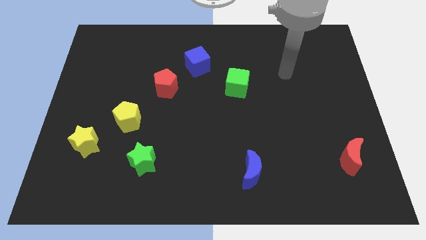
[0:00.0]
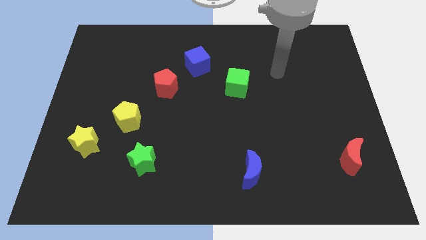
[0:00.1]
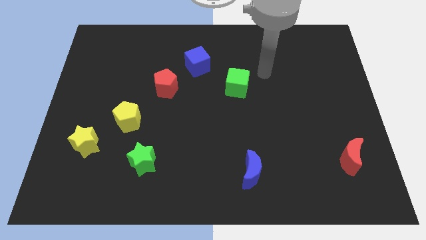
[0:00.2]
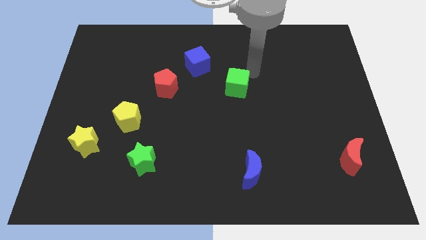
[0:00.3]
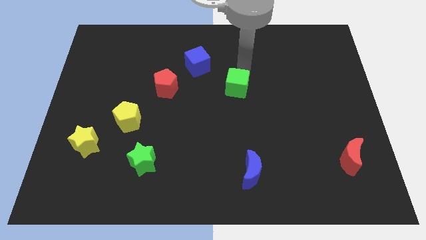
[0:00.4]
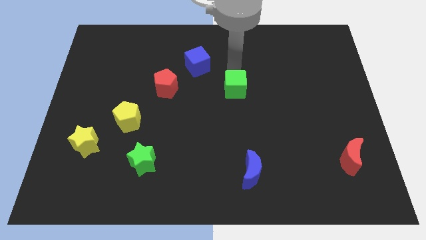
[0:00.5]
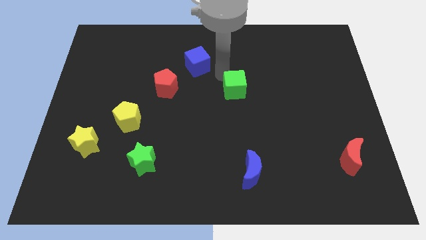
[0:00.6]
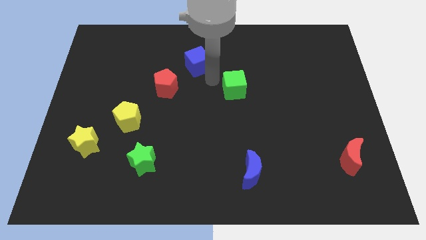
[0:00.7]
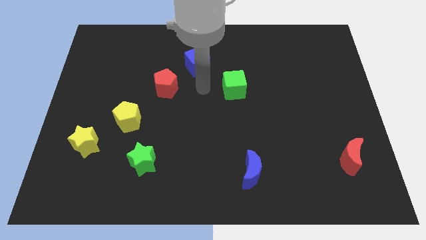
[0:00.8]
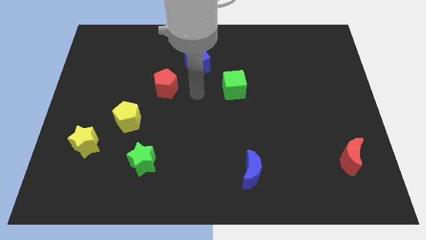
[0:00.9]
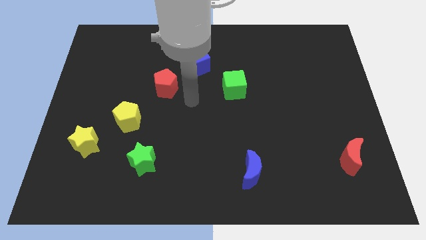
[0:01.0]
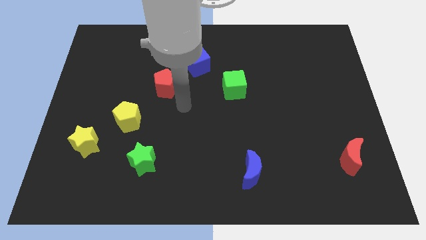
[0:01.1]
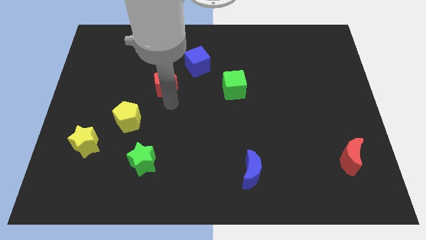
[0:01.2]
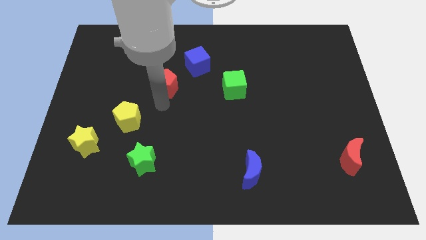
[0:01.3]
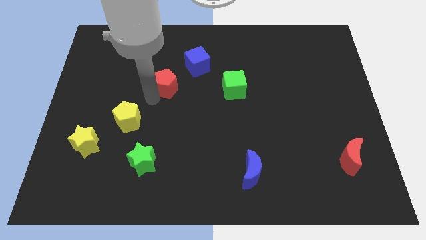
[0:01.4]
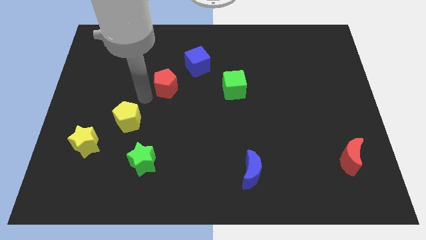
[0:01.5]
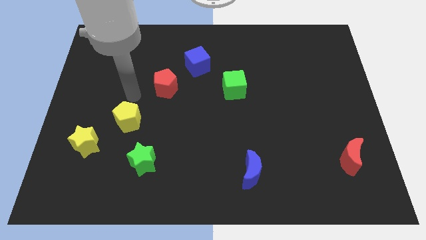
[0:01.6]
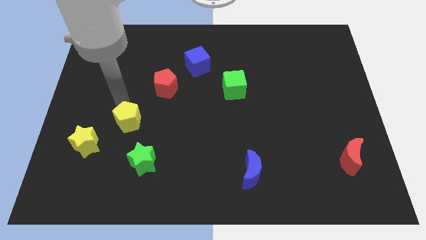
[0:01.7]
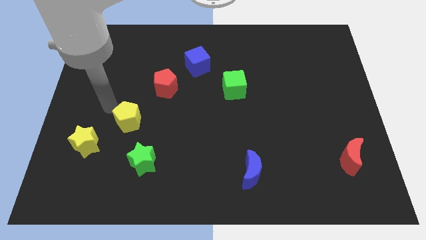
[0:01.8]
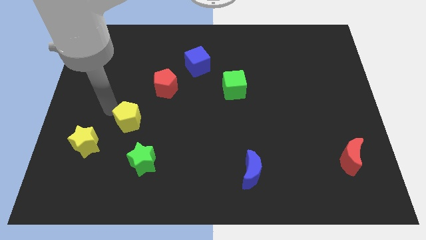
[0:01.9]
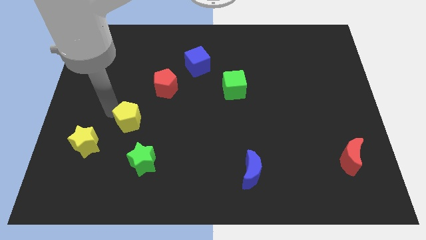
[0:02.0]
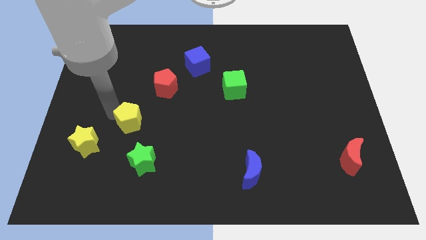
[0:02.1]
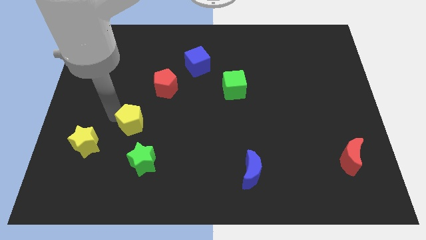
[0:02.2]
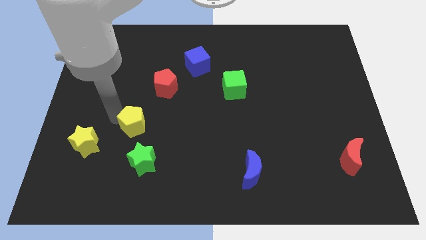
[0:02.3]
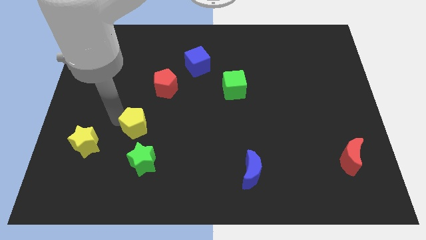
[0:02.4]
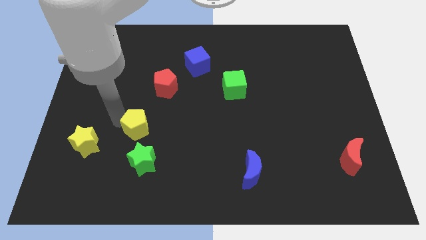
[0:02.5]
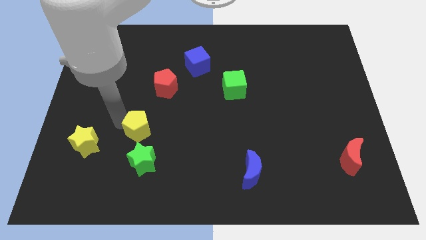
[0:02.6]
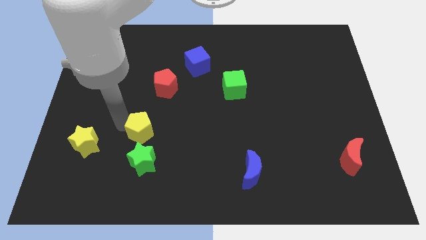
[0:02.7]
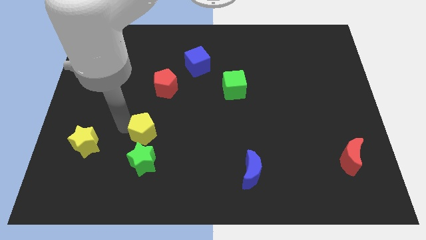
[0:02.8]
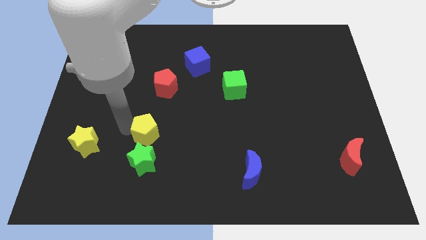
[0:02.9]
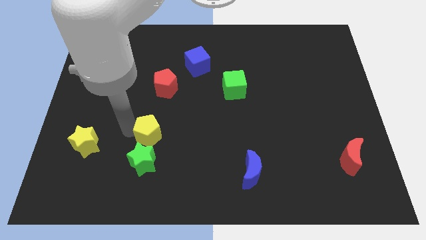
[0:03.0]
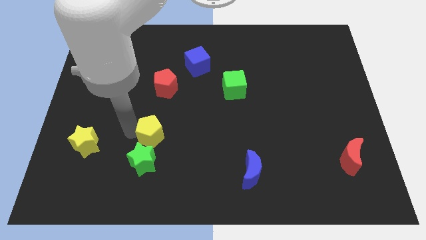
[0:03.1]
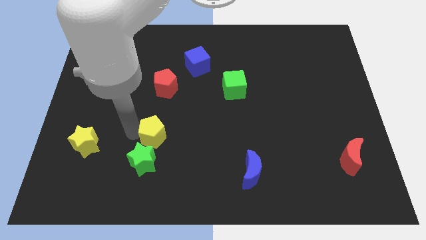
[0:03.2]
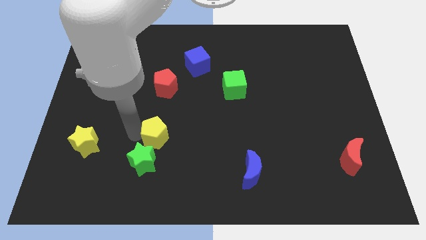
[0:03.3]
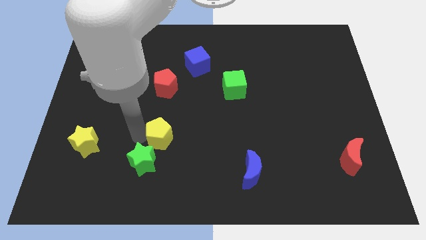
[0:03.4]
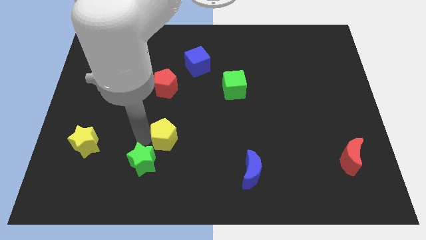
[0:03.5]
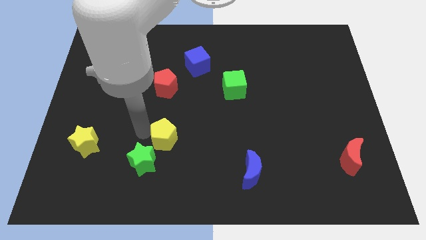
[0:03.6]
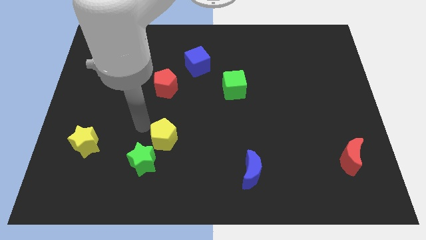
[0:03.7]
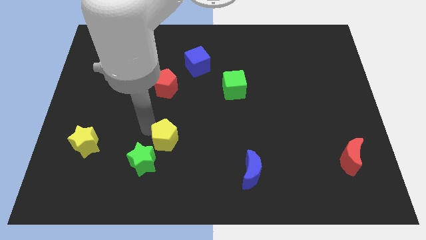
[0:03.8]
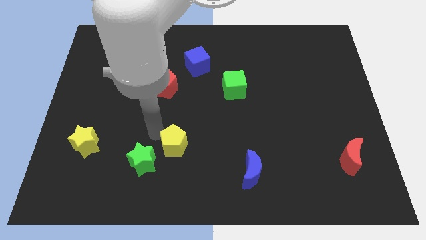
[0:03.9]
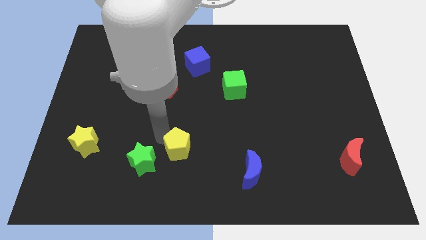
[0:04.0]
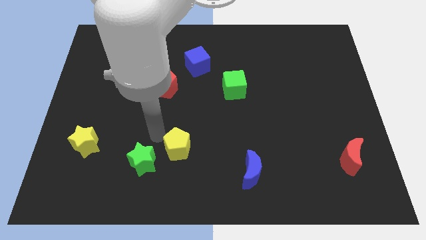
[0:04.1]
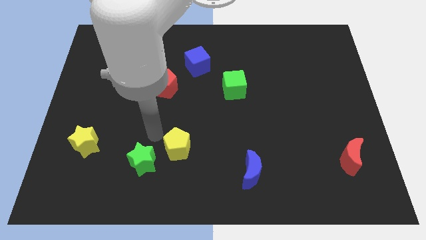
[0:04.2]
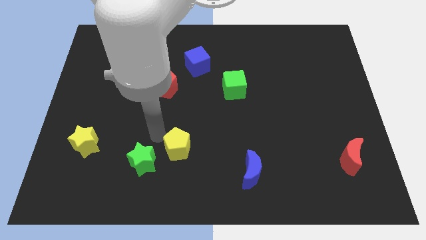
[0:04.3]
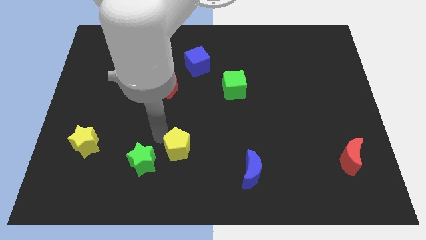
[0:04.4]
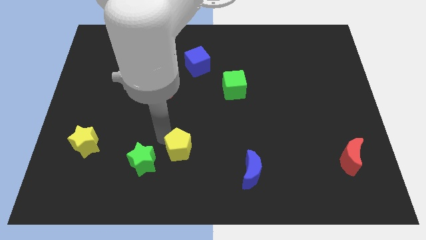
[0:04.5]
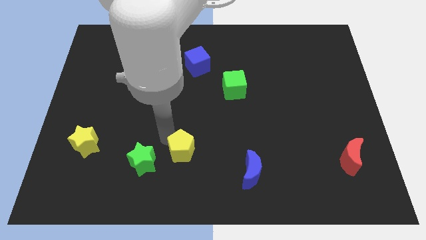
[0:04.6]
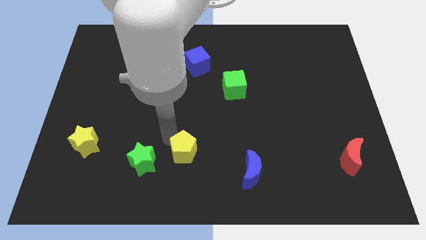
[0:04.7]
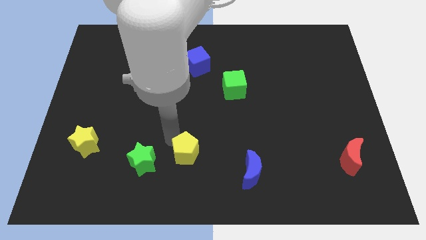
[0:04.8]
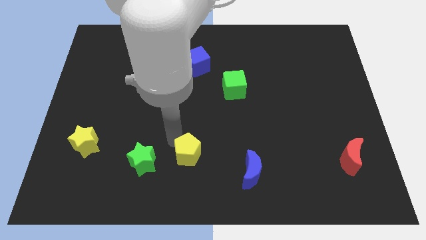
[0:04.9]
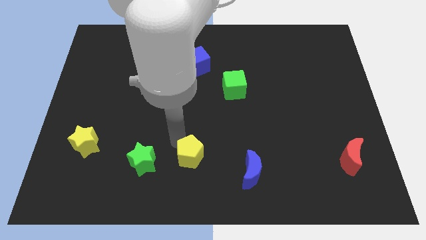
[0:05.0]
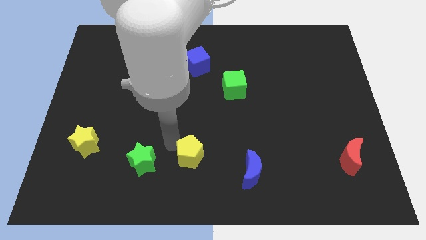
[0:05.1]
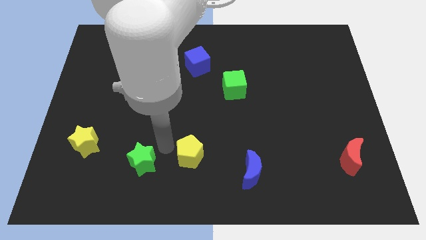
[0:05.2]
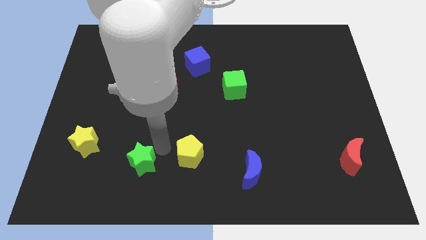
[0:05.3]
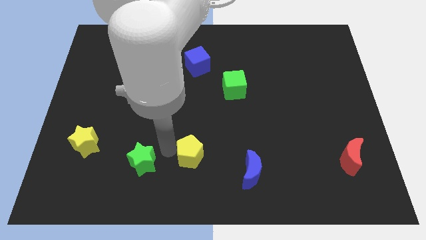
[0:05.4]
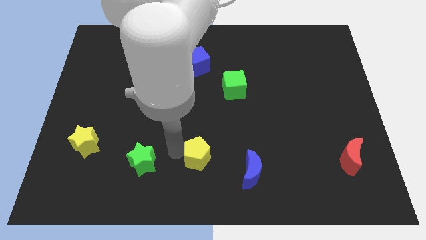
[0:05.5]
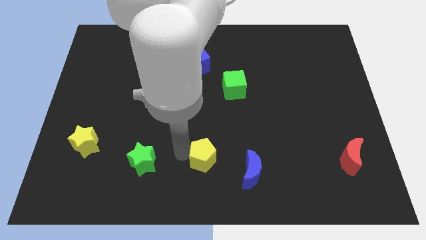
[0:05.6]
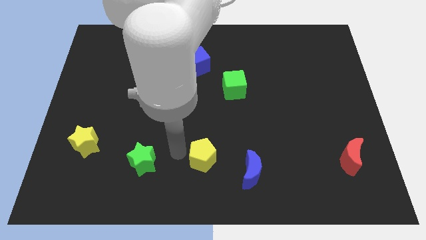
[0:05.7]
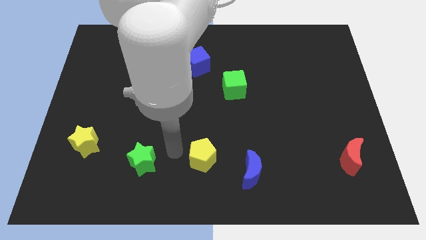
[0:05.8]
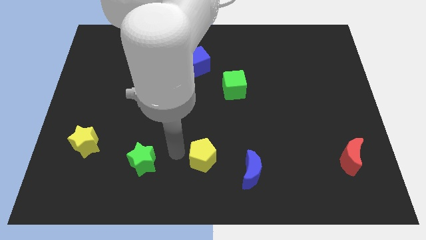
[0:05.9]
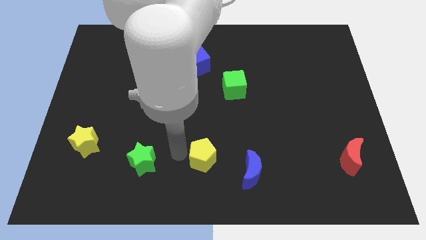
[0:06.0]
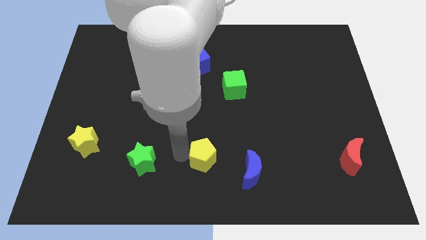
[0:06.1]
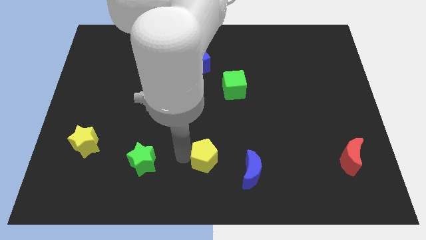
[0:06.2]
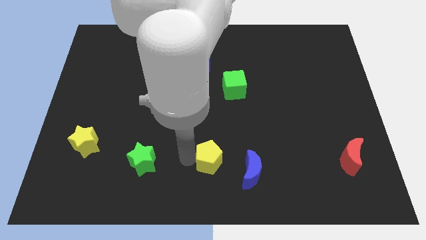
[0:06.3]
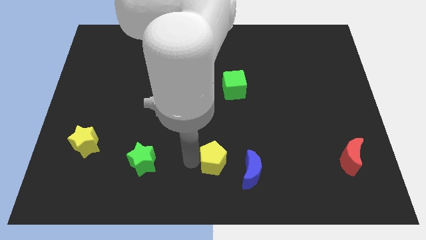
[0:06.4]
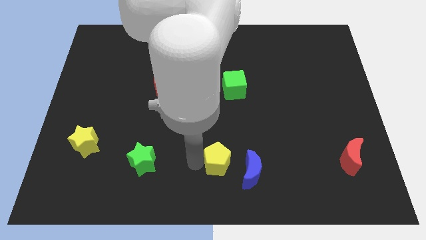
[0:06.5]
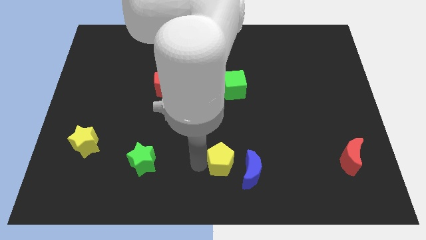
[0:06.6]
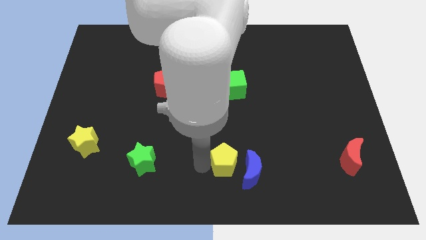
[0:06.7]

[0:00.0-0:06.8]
put the yellow pentagon to the blue moon

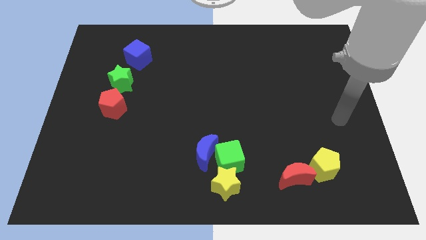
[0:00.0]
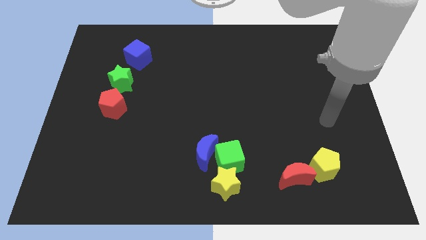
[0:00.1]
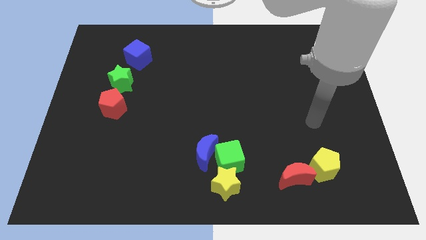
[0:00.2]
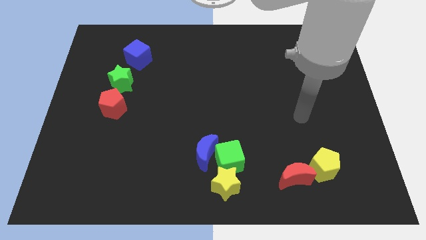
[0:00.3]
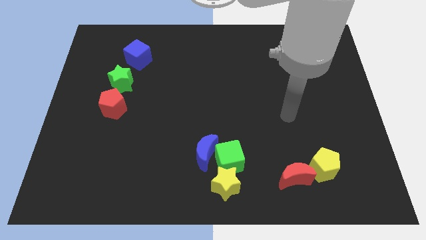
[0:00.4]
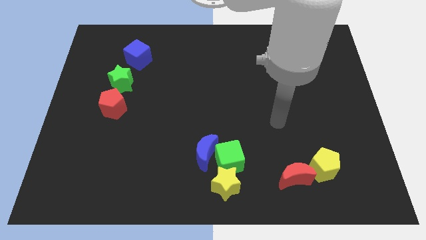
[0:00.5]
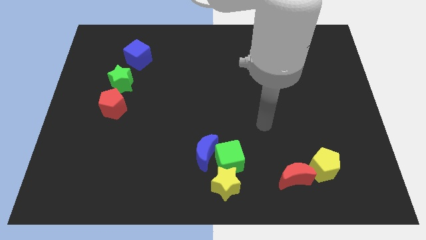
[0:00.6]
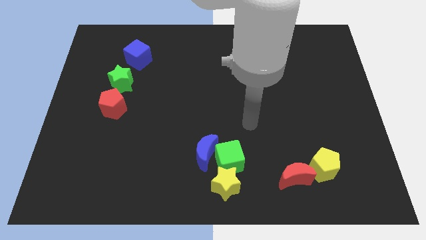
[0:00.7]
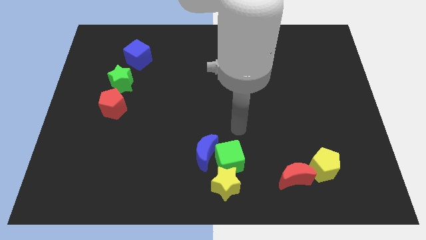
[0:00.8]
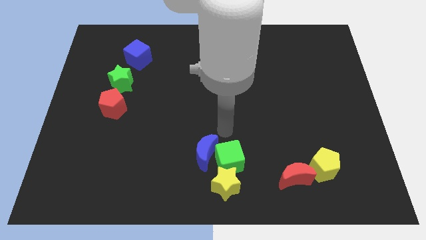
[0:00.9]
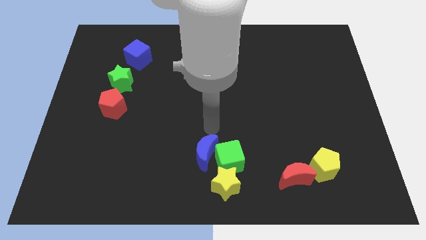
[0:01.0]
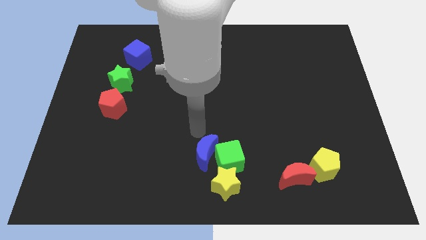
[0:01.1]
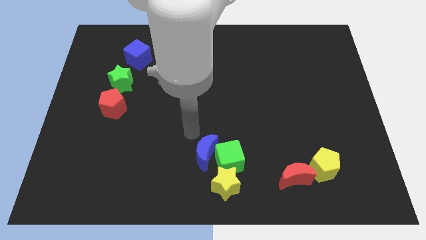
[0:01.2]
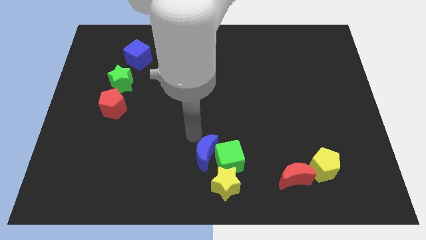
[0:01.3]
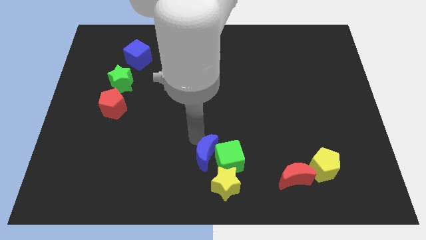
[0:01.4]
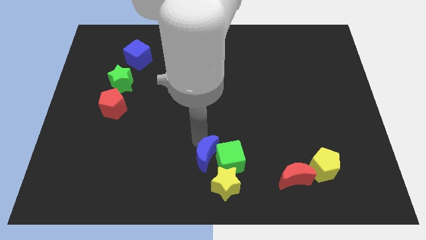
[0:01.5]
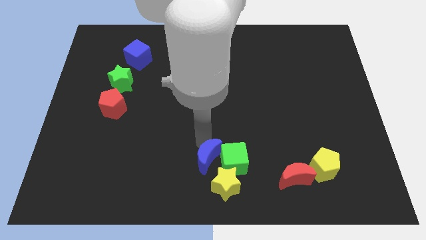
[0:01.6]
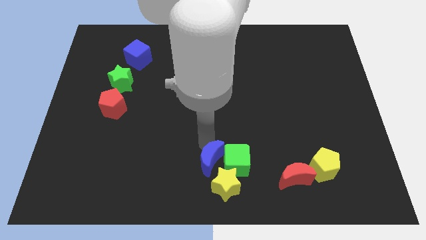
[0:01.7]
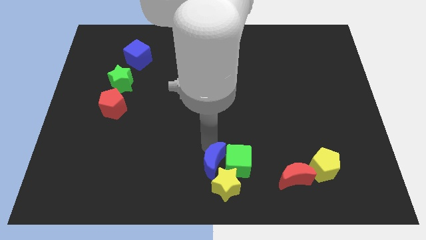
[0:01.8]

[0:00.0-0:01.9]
push the blue moon to the yellow star
